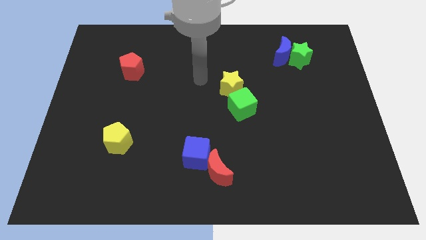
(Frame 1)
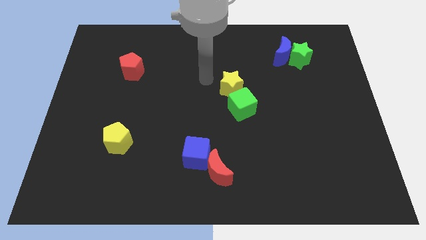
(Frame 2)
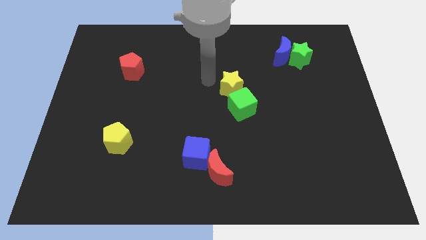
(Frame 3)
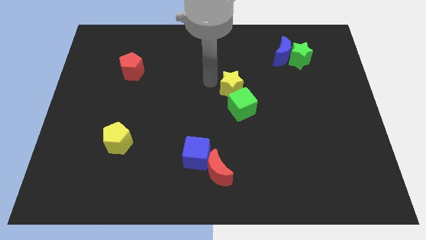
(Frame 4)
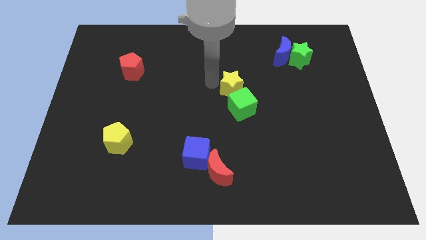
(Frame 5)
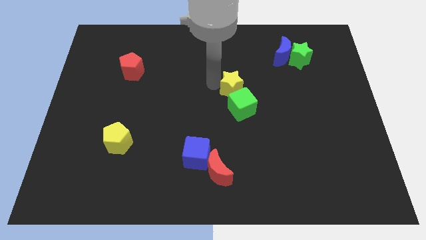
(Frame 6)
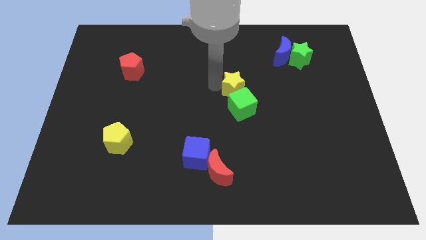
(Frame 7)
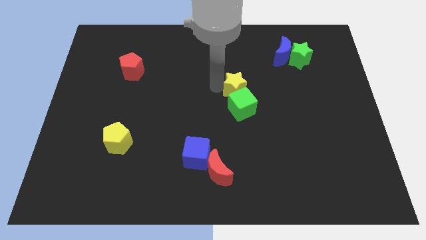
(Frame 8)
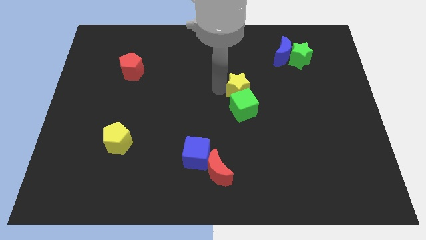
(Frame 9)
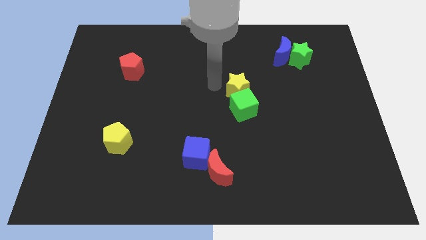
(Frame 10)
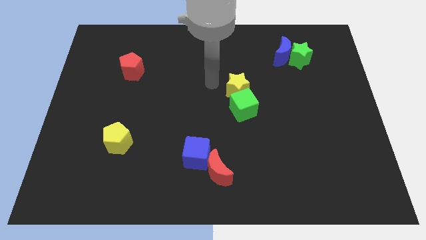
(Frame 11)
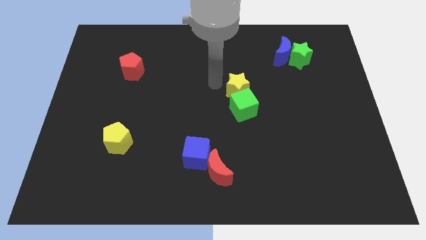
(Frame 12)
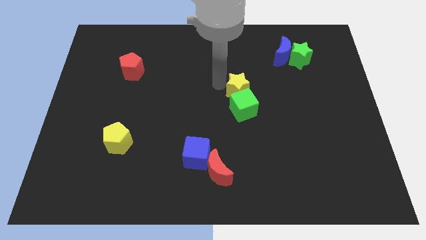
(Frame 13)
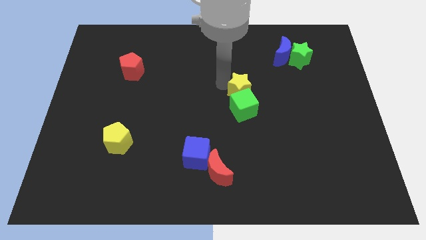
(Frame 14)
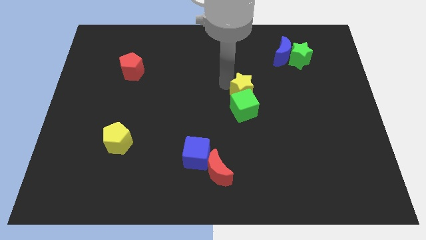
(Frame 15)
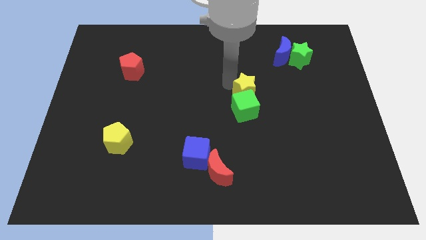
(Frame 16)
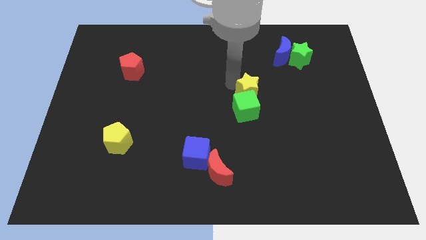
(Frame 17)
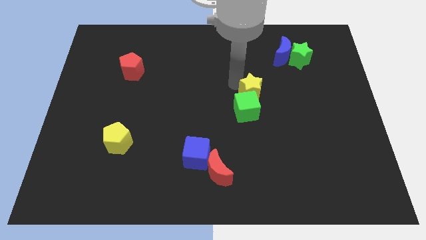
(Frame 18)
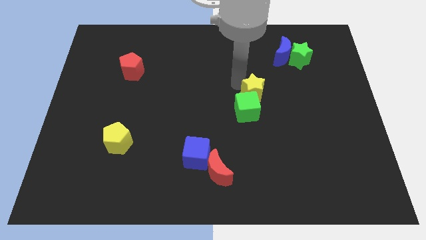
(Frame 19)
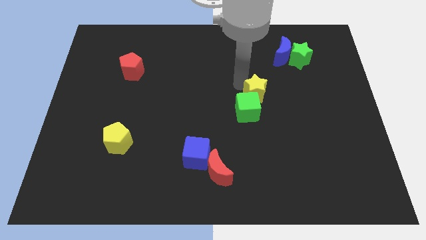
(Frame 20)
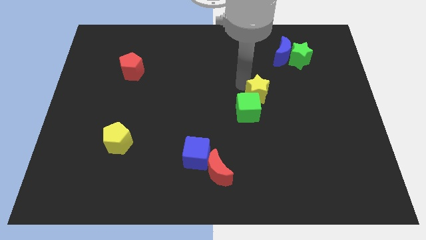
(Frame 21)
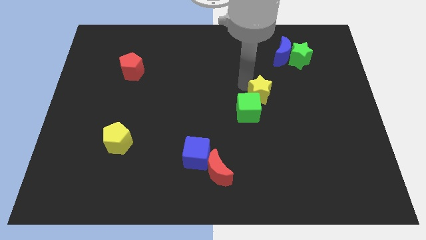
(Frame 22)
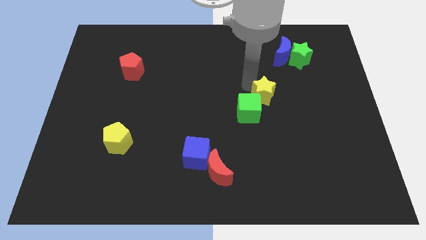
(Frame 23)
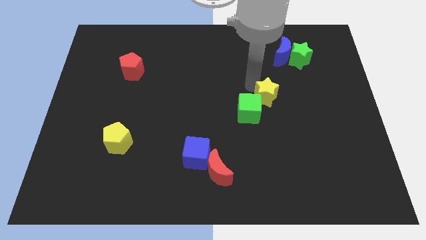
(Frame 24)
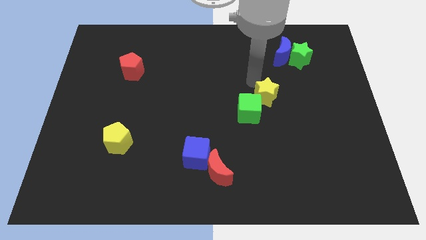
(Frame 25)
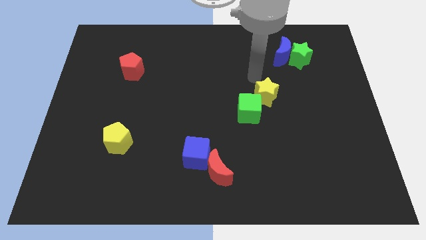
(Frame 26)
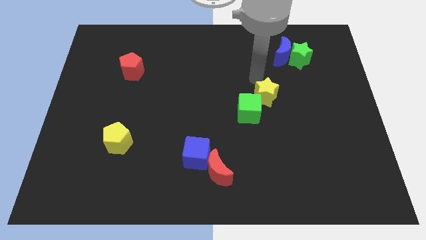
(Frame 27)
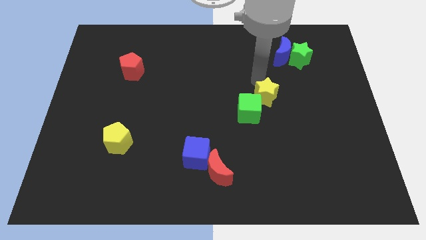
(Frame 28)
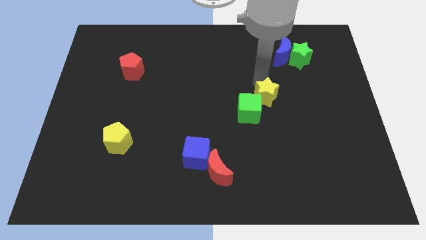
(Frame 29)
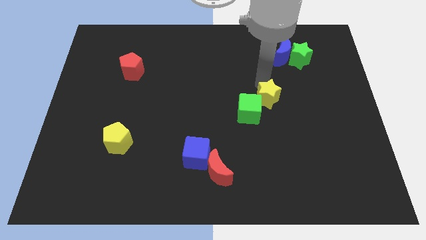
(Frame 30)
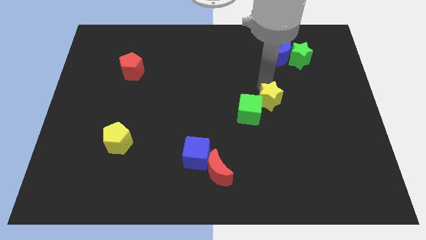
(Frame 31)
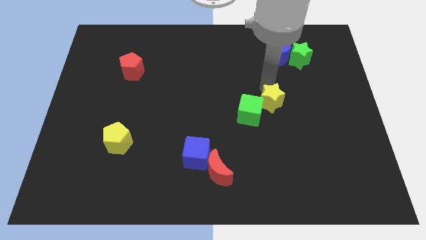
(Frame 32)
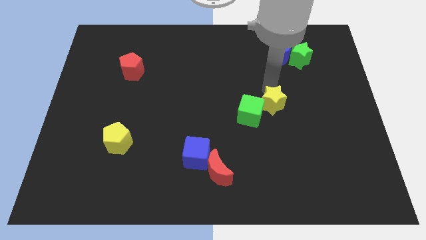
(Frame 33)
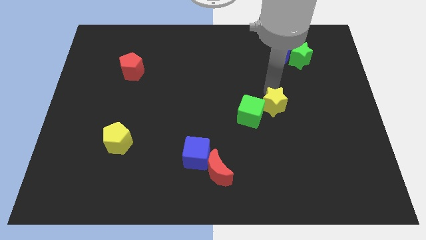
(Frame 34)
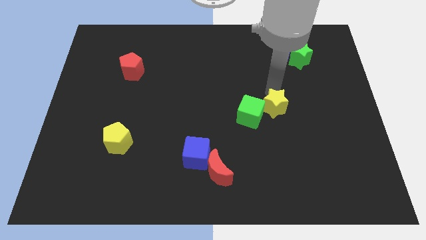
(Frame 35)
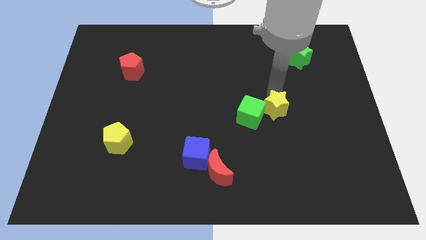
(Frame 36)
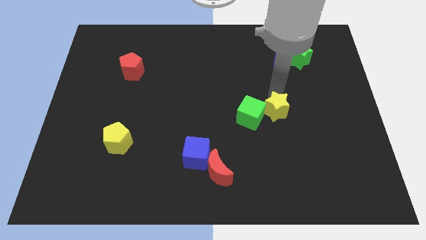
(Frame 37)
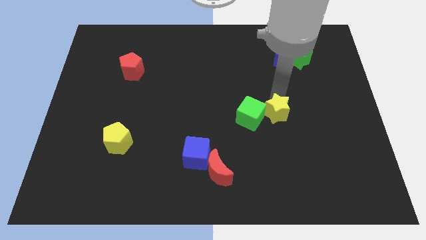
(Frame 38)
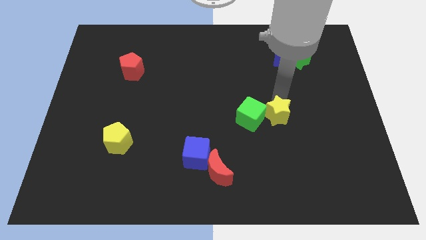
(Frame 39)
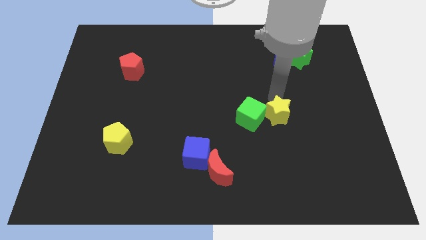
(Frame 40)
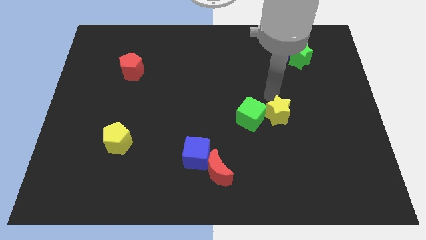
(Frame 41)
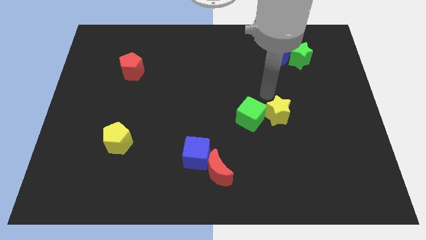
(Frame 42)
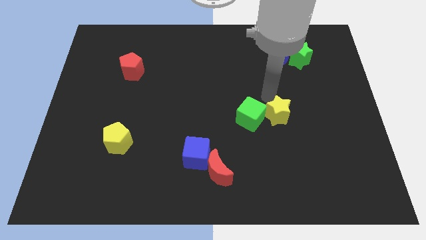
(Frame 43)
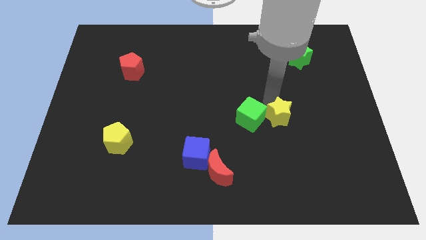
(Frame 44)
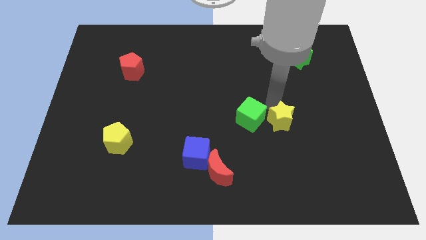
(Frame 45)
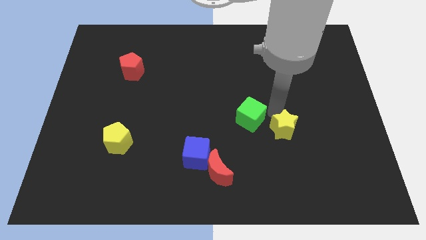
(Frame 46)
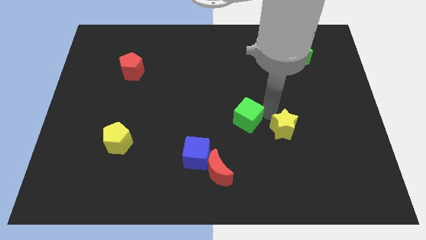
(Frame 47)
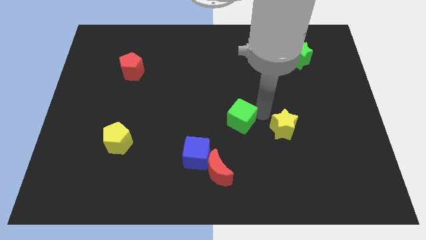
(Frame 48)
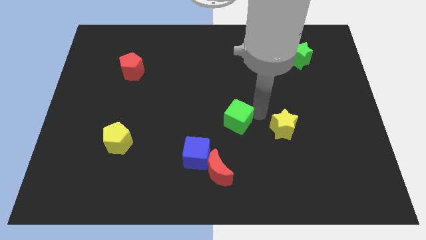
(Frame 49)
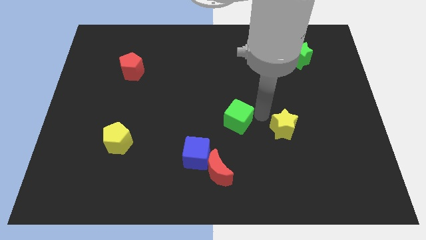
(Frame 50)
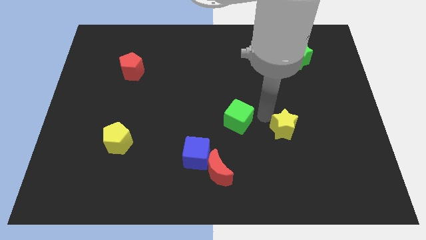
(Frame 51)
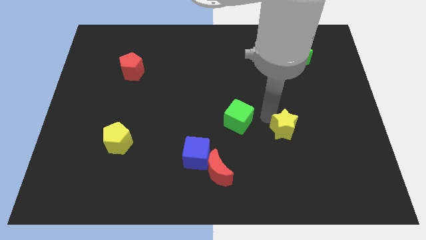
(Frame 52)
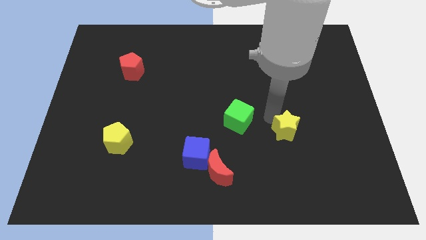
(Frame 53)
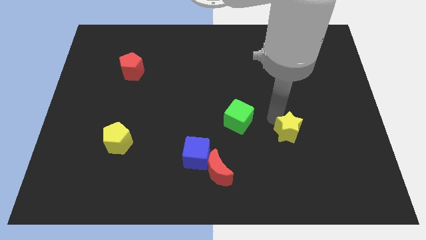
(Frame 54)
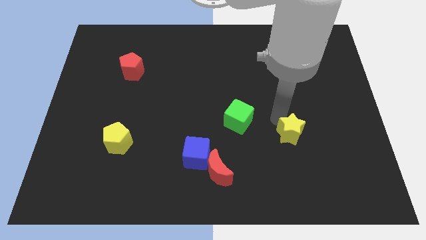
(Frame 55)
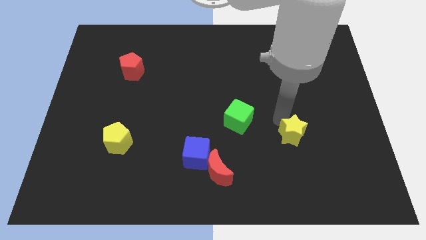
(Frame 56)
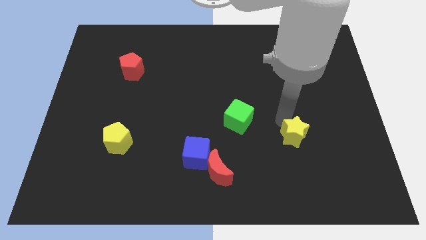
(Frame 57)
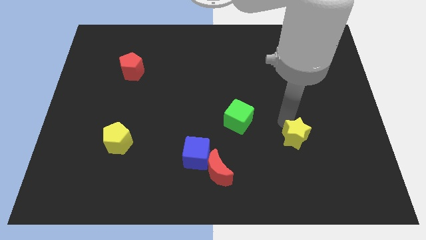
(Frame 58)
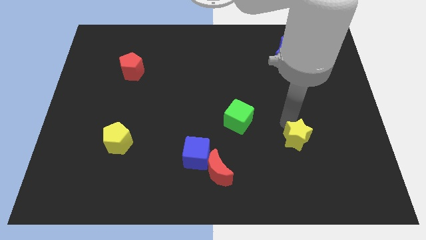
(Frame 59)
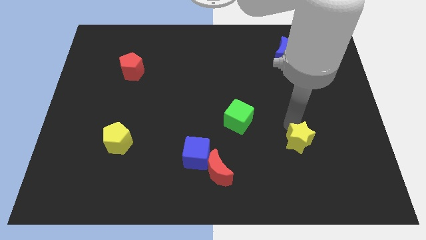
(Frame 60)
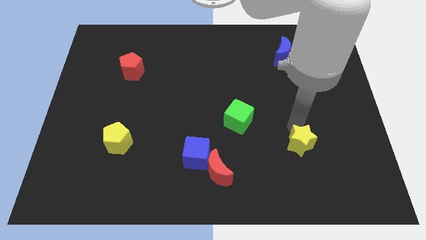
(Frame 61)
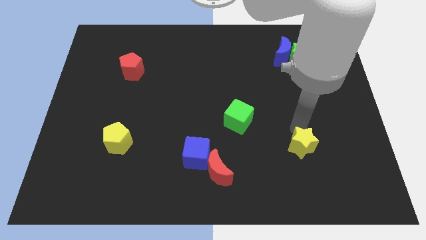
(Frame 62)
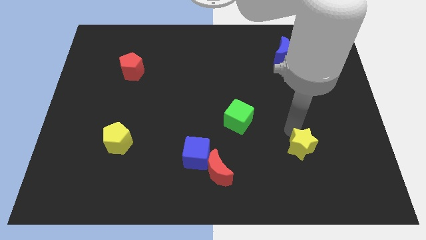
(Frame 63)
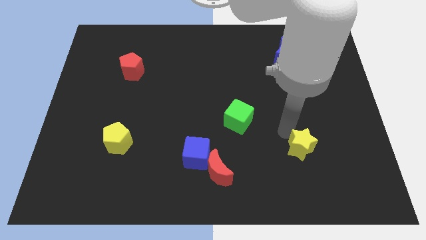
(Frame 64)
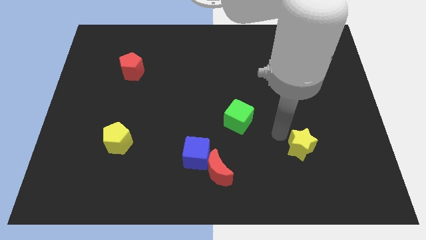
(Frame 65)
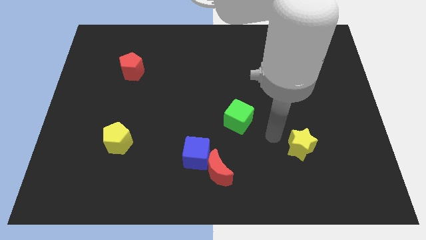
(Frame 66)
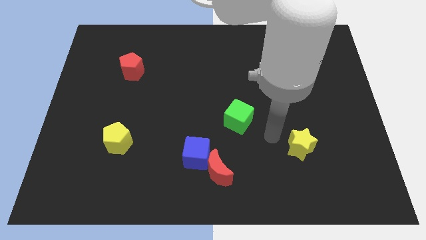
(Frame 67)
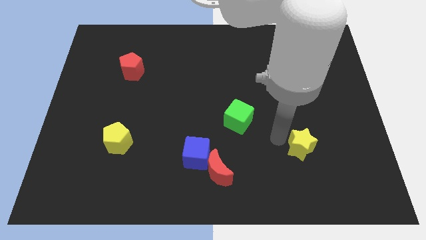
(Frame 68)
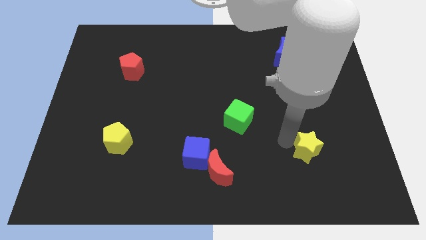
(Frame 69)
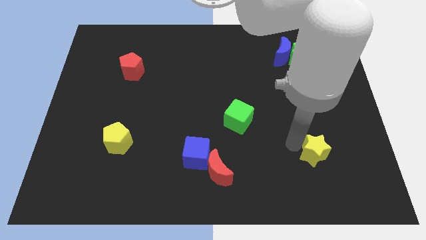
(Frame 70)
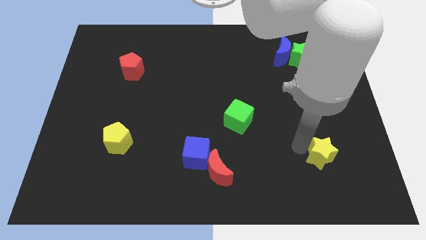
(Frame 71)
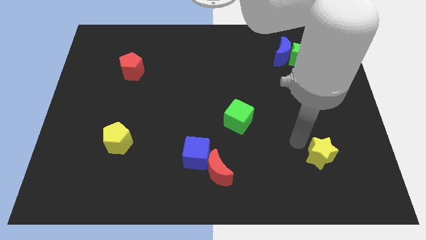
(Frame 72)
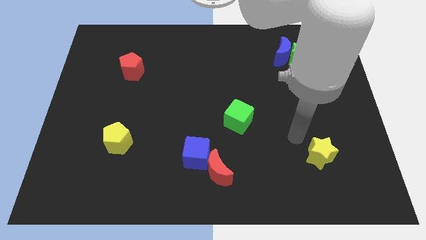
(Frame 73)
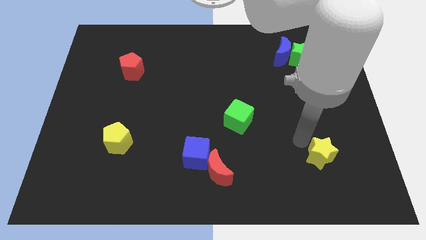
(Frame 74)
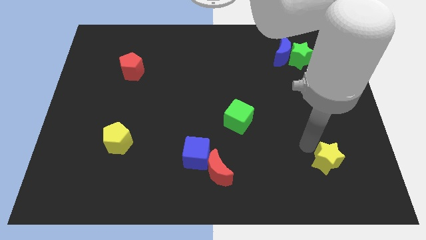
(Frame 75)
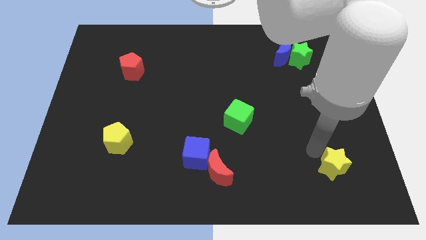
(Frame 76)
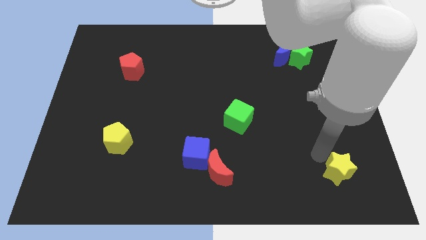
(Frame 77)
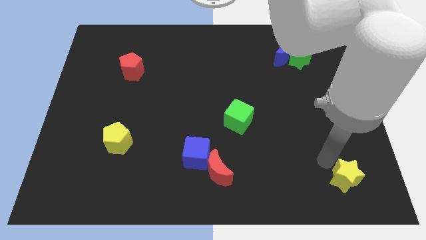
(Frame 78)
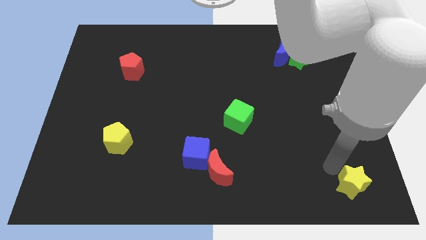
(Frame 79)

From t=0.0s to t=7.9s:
move the yellow star to the bottom right of the board

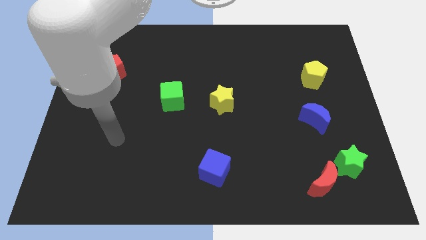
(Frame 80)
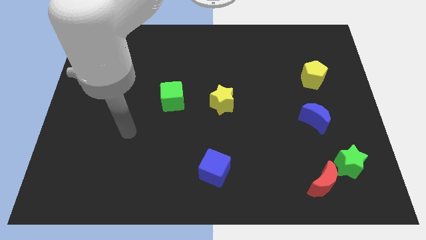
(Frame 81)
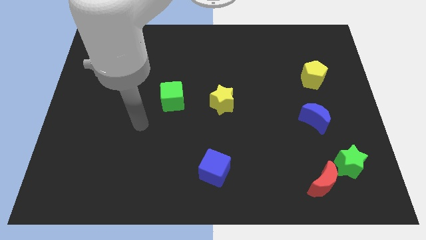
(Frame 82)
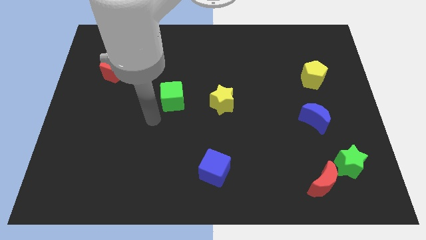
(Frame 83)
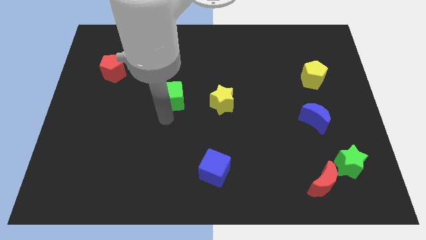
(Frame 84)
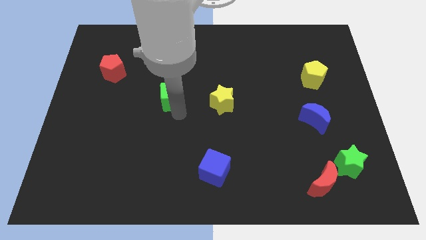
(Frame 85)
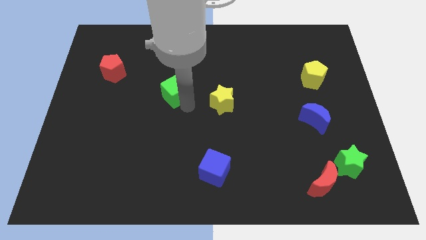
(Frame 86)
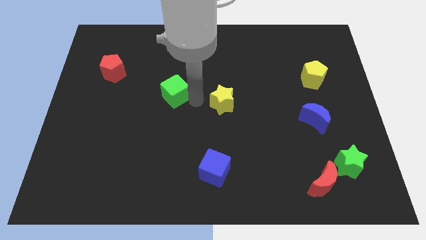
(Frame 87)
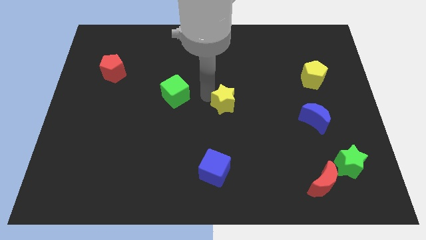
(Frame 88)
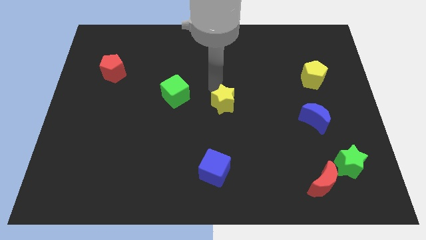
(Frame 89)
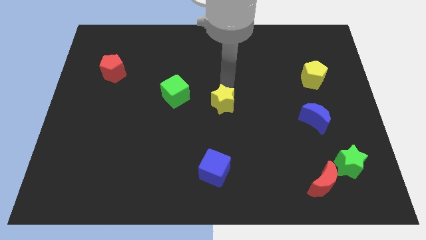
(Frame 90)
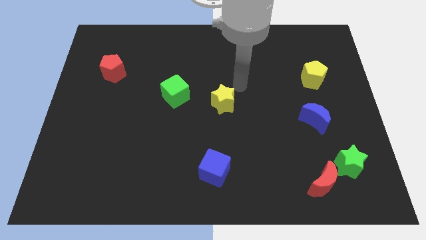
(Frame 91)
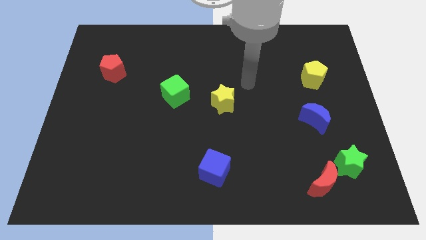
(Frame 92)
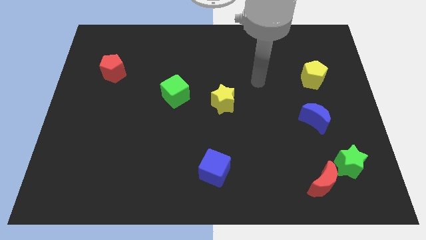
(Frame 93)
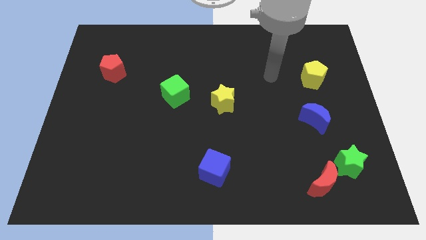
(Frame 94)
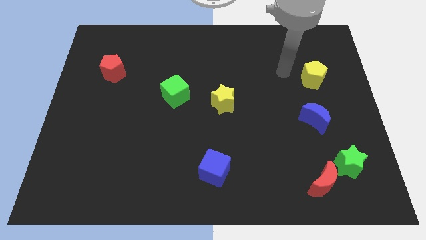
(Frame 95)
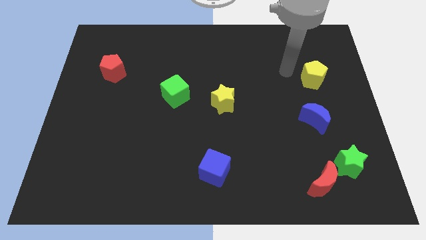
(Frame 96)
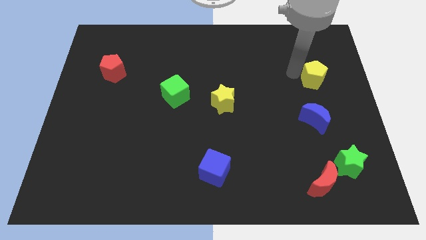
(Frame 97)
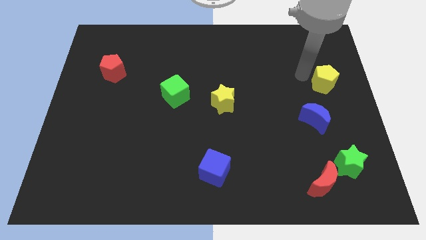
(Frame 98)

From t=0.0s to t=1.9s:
put the yellow pentagon to the right side of the board
